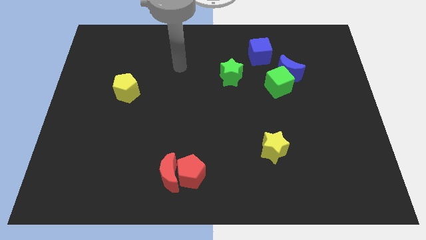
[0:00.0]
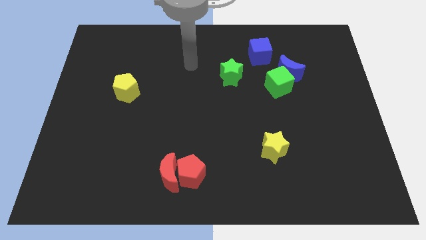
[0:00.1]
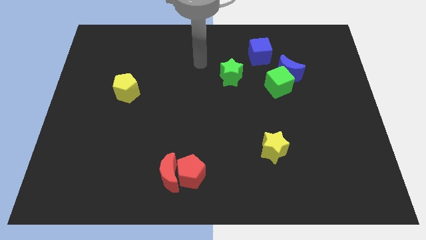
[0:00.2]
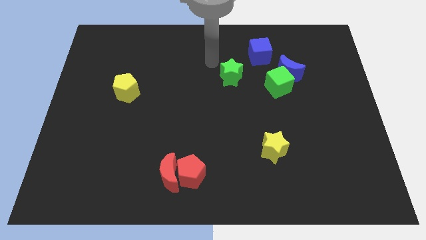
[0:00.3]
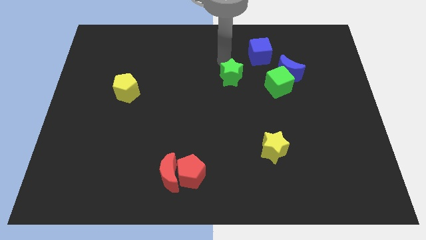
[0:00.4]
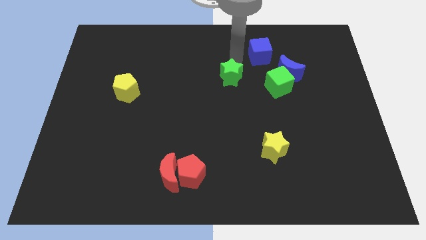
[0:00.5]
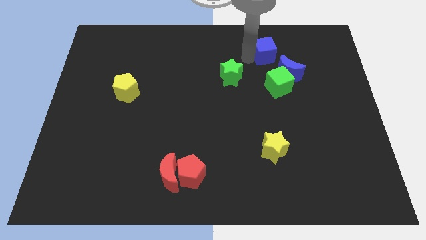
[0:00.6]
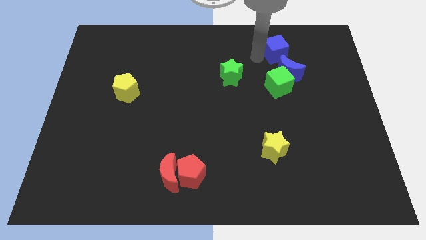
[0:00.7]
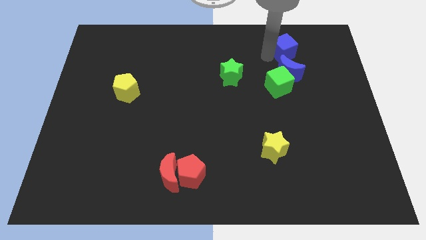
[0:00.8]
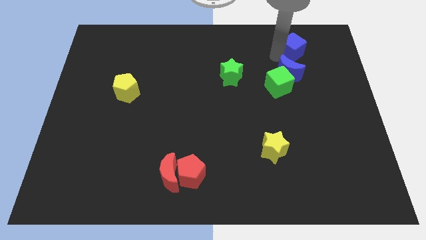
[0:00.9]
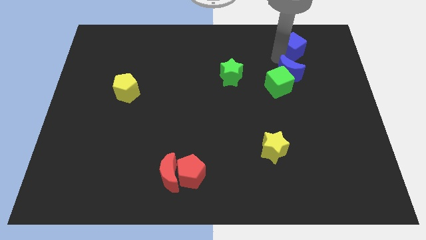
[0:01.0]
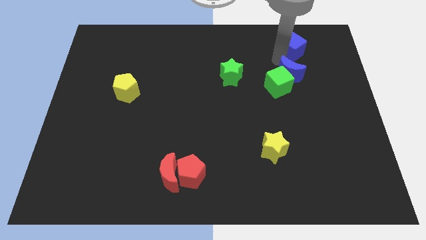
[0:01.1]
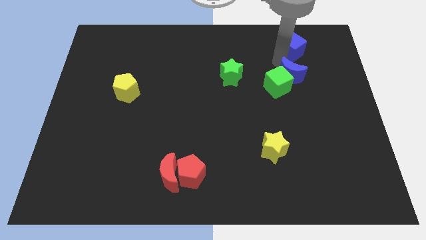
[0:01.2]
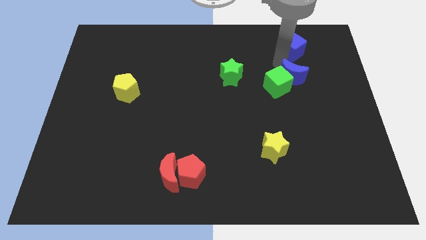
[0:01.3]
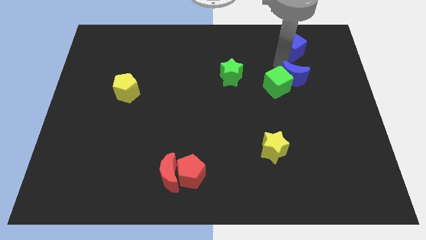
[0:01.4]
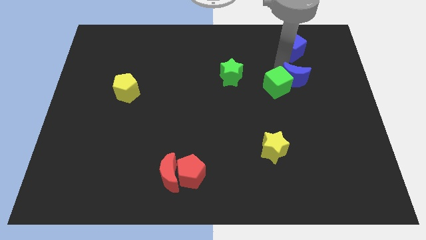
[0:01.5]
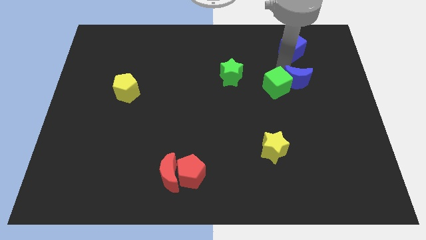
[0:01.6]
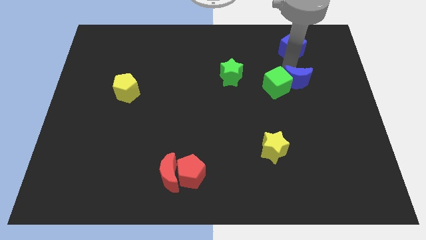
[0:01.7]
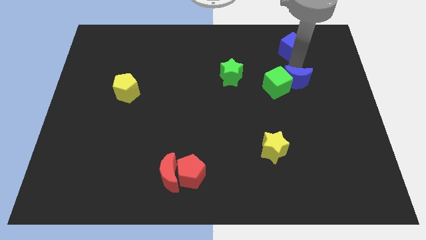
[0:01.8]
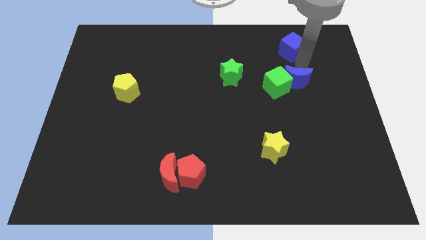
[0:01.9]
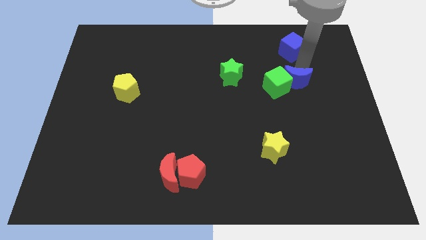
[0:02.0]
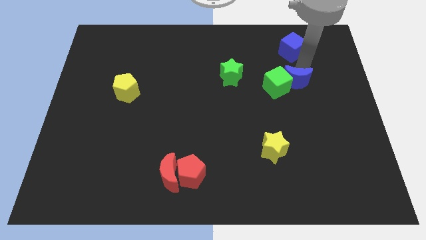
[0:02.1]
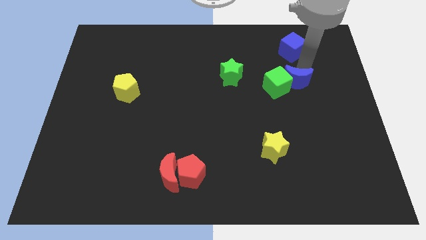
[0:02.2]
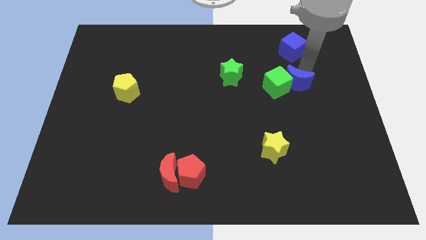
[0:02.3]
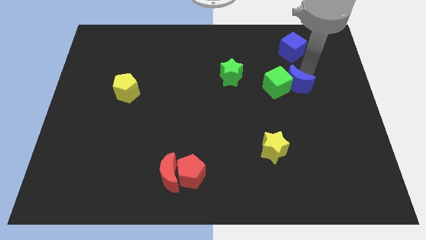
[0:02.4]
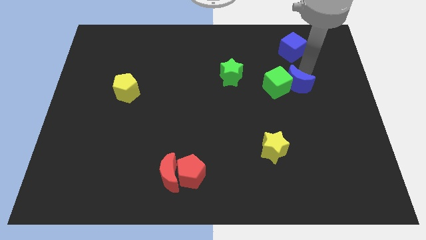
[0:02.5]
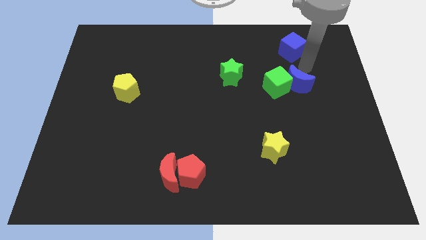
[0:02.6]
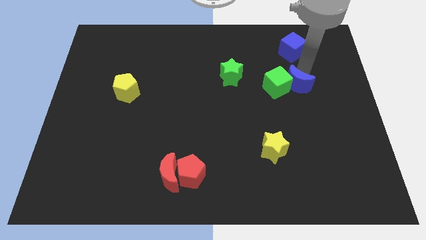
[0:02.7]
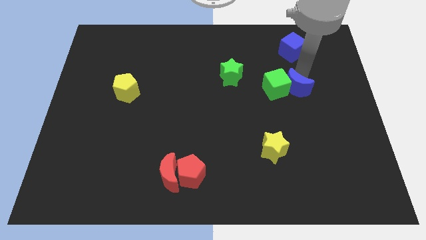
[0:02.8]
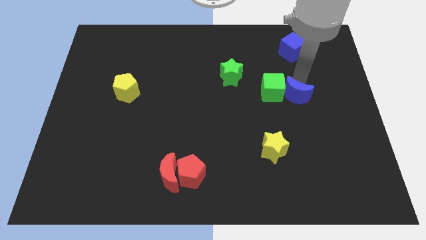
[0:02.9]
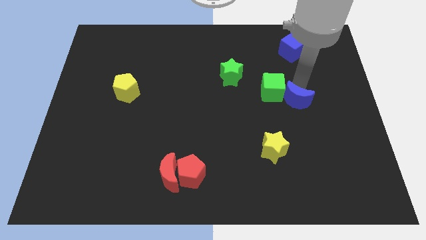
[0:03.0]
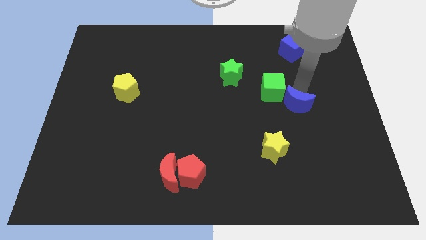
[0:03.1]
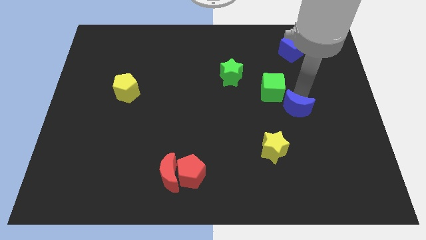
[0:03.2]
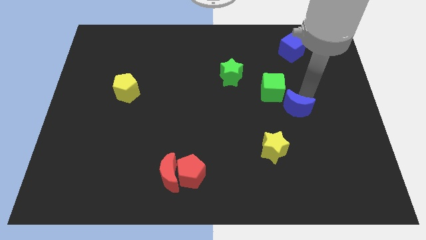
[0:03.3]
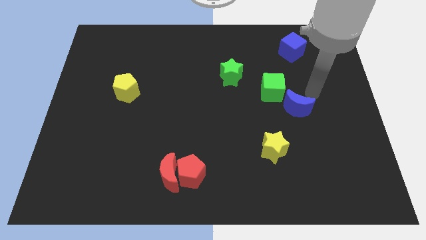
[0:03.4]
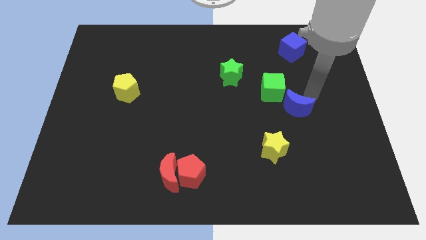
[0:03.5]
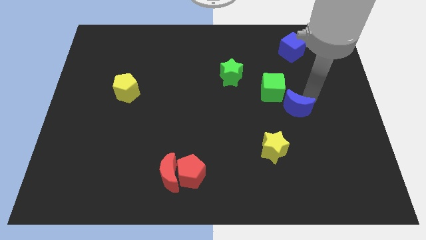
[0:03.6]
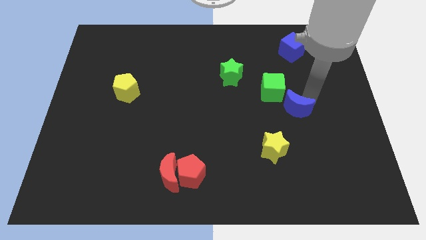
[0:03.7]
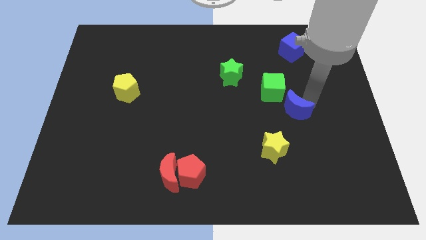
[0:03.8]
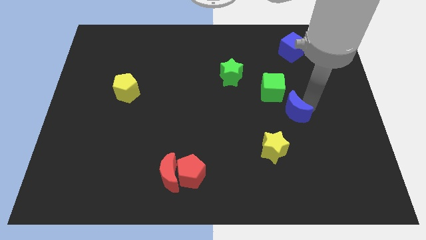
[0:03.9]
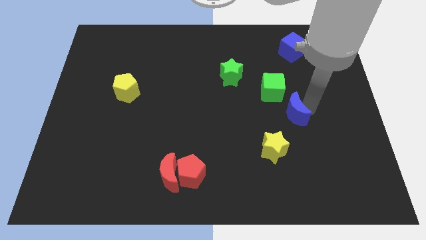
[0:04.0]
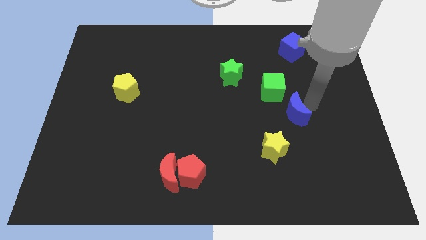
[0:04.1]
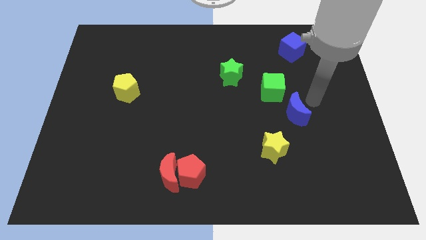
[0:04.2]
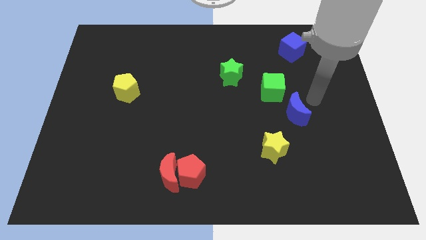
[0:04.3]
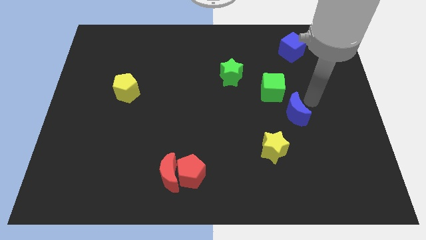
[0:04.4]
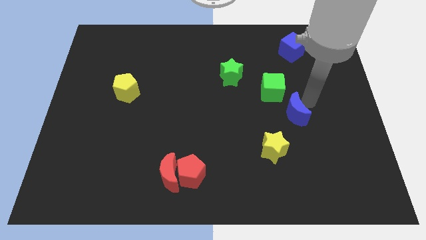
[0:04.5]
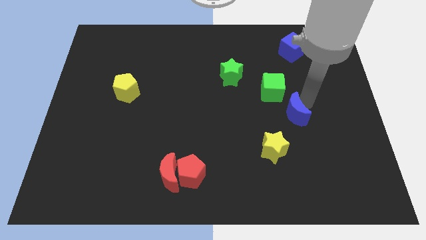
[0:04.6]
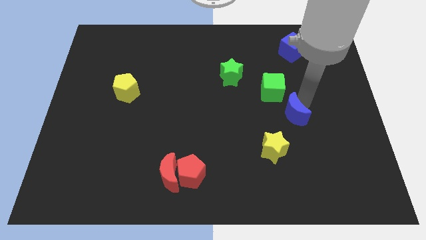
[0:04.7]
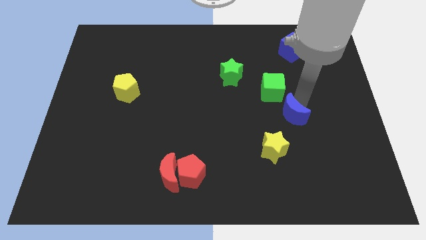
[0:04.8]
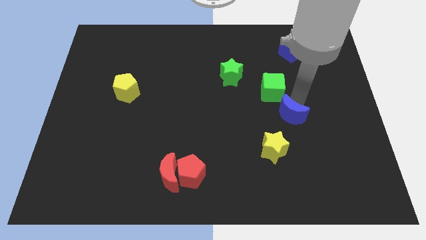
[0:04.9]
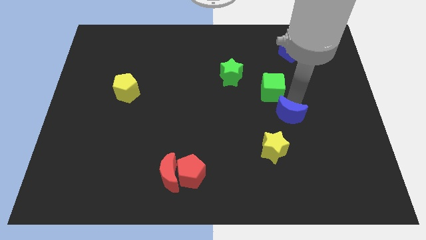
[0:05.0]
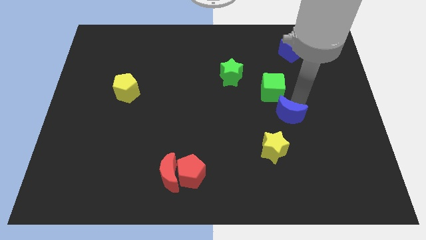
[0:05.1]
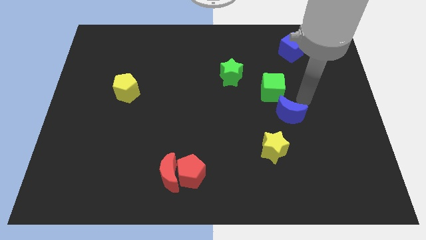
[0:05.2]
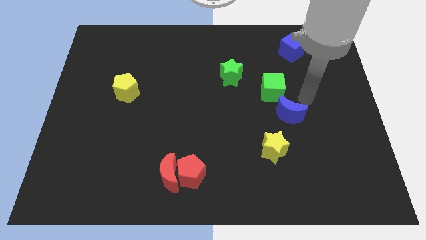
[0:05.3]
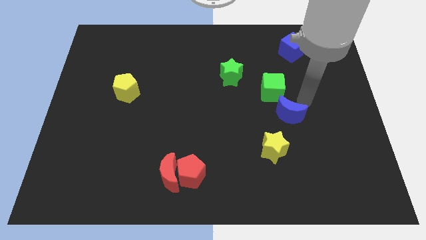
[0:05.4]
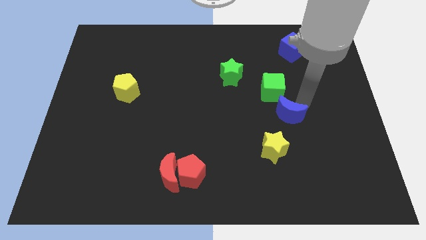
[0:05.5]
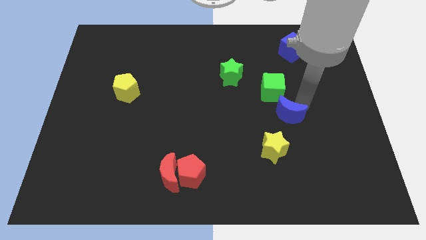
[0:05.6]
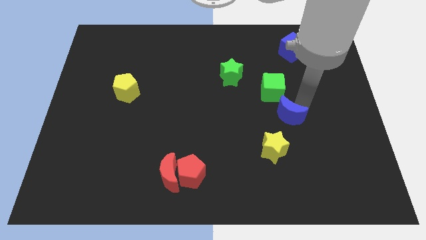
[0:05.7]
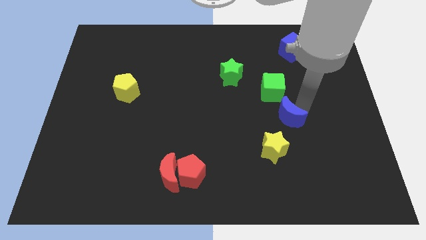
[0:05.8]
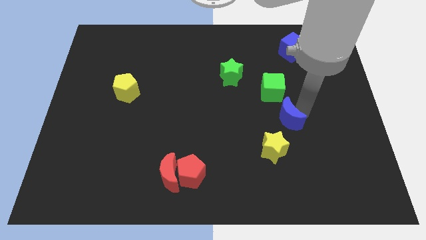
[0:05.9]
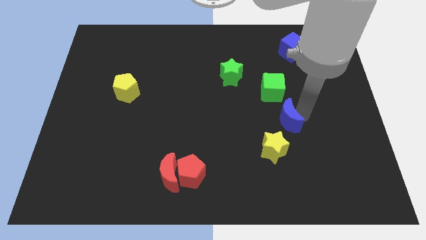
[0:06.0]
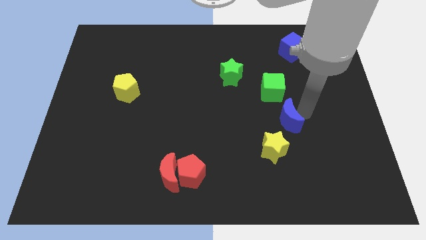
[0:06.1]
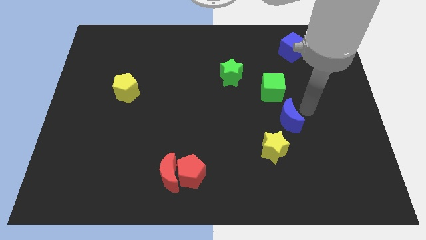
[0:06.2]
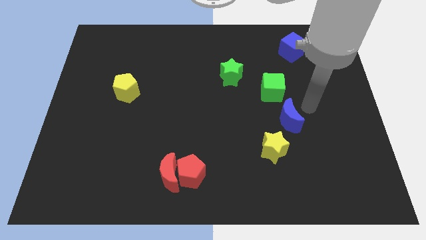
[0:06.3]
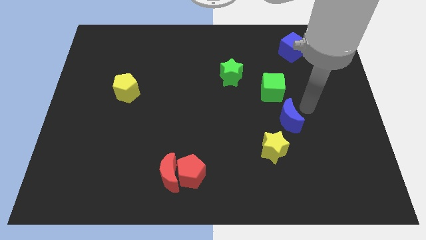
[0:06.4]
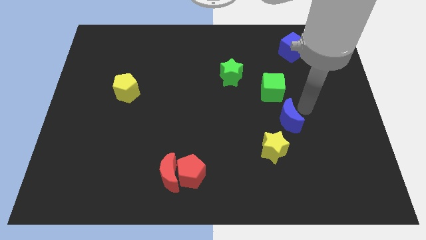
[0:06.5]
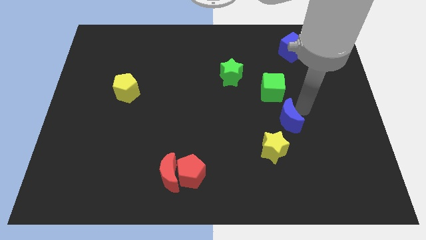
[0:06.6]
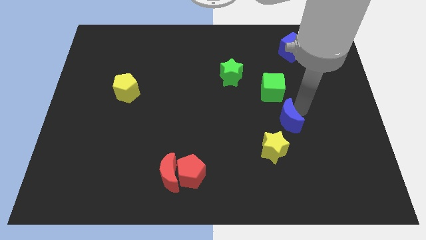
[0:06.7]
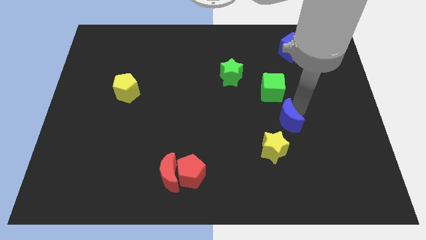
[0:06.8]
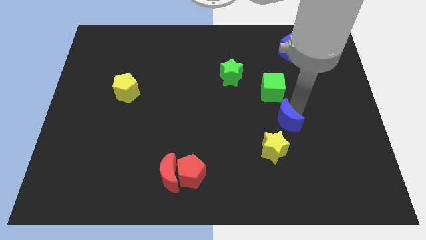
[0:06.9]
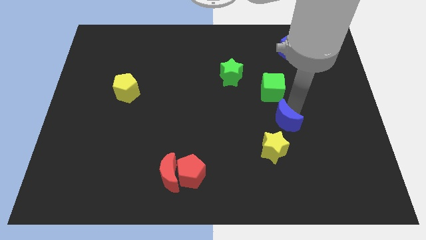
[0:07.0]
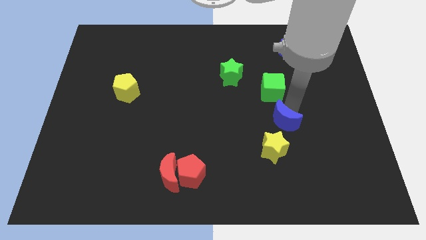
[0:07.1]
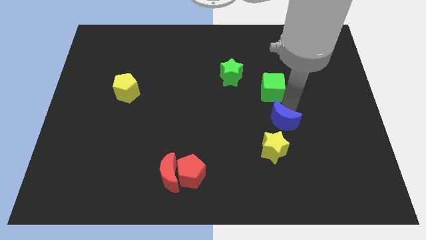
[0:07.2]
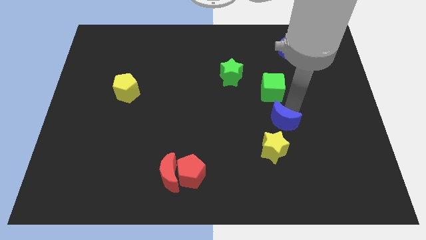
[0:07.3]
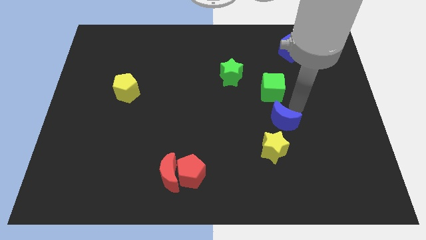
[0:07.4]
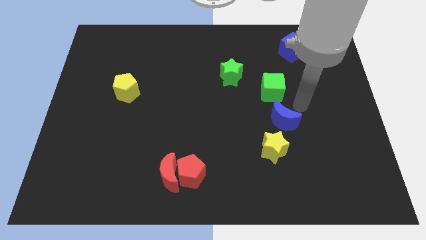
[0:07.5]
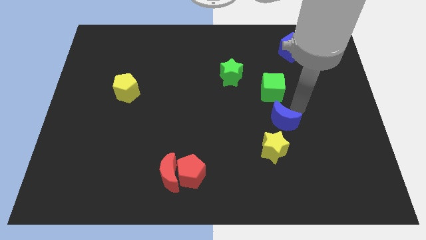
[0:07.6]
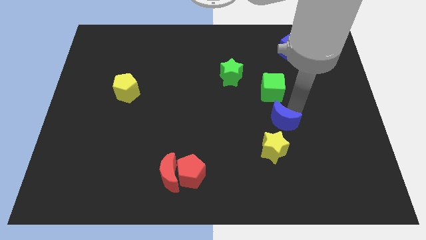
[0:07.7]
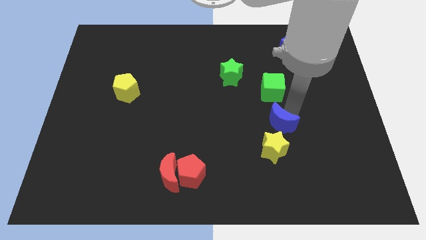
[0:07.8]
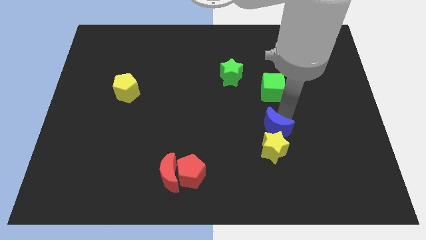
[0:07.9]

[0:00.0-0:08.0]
put the blue moon towards the yellow star
